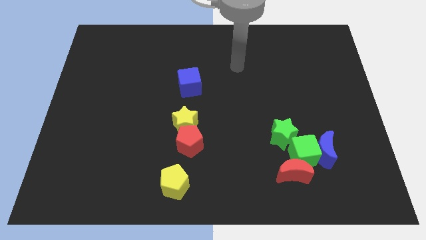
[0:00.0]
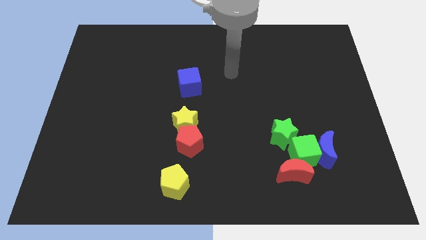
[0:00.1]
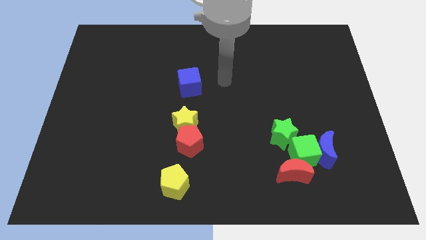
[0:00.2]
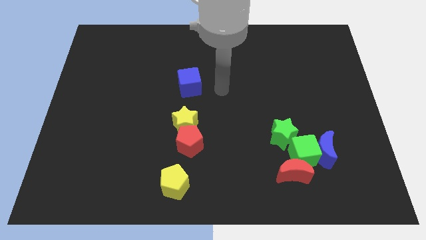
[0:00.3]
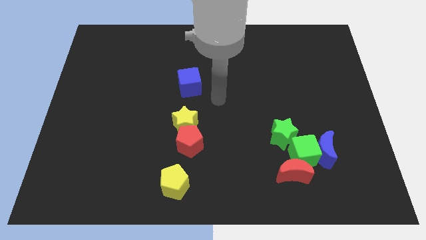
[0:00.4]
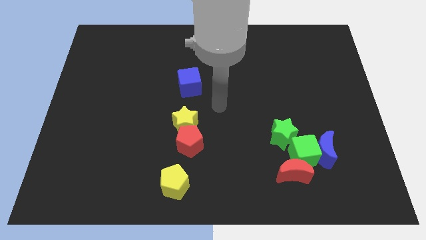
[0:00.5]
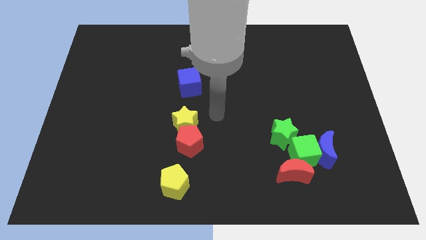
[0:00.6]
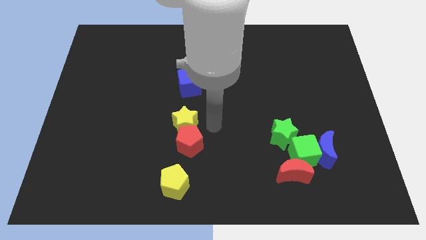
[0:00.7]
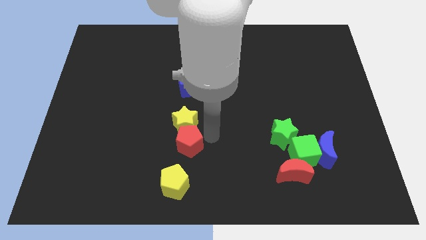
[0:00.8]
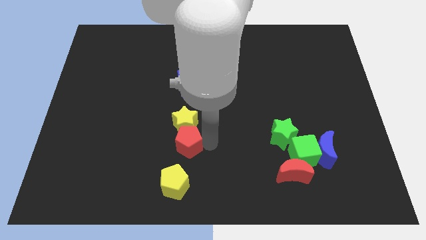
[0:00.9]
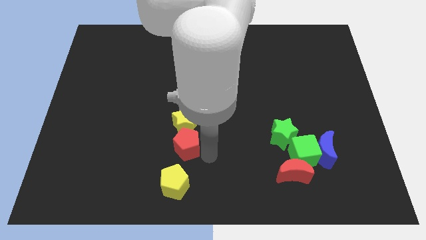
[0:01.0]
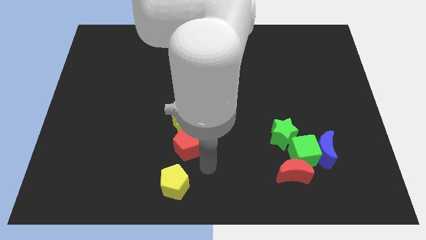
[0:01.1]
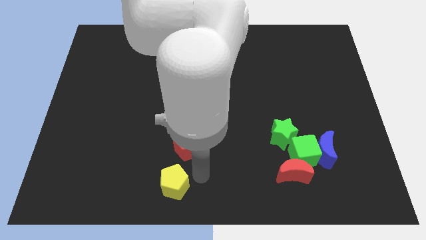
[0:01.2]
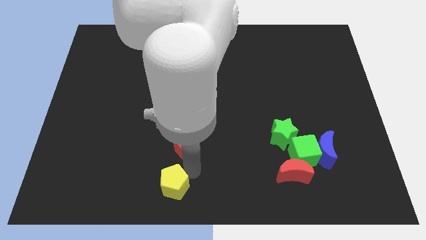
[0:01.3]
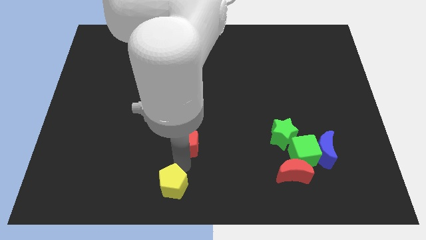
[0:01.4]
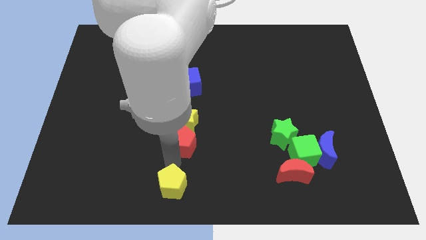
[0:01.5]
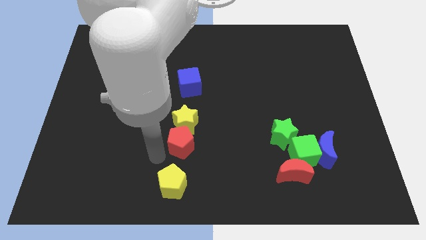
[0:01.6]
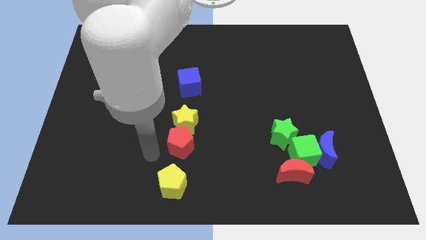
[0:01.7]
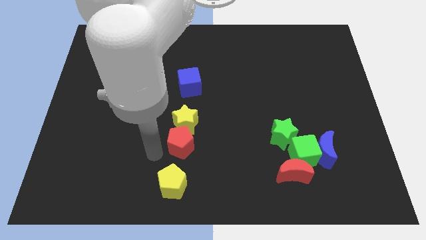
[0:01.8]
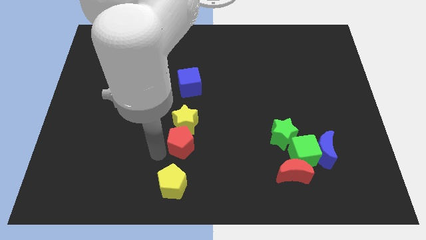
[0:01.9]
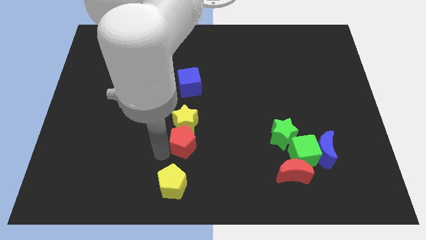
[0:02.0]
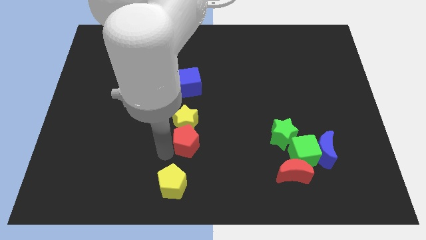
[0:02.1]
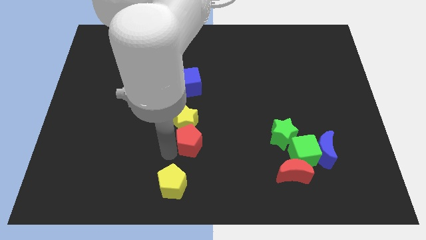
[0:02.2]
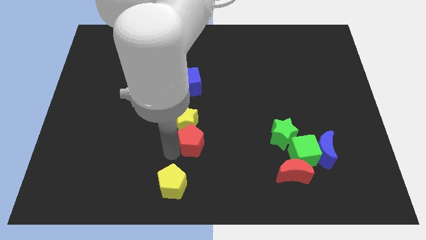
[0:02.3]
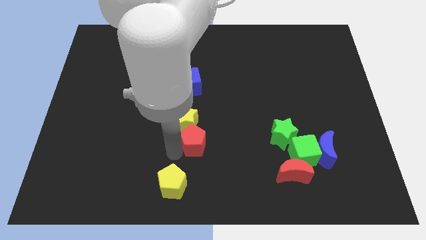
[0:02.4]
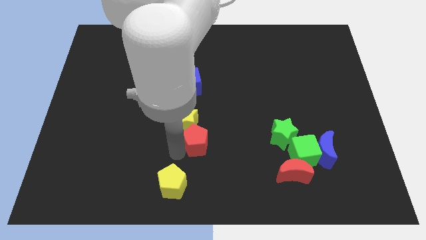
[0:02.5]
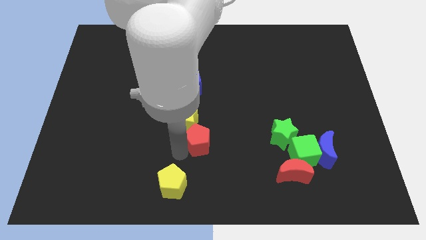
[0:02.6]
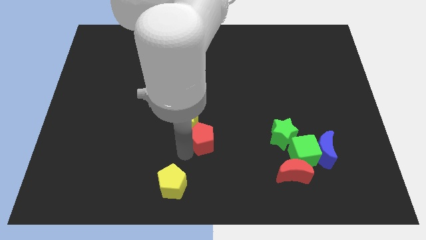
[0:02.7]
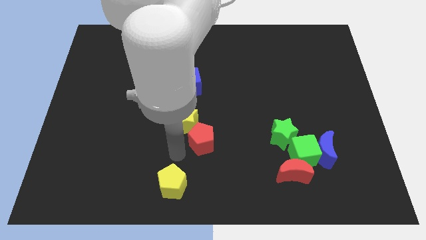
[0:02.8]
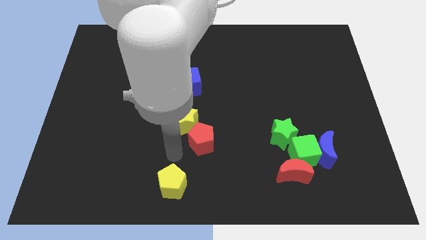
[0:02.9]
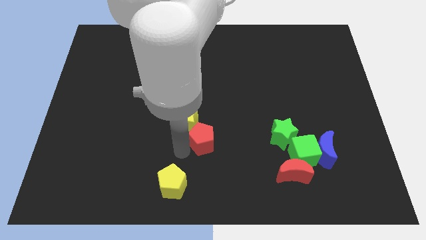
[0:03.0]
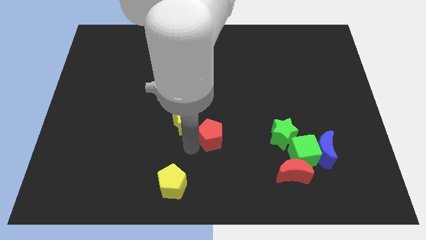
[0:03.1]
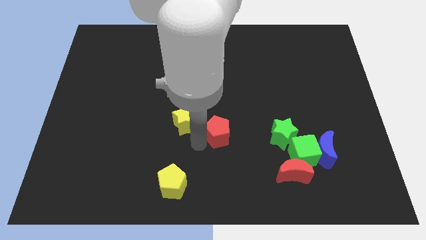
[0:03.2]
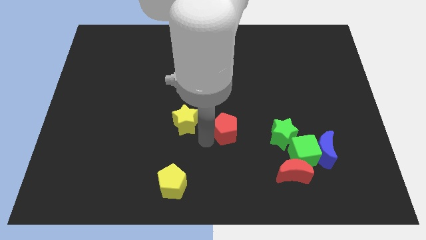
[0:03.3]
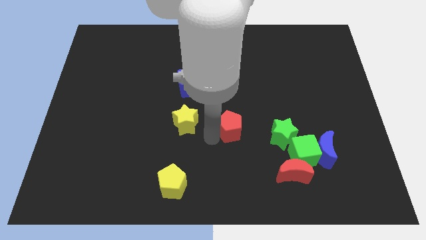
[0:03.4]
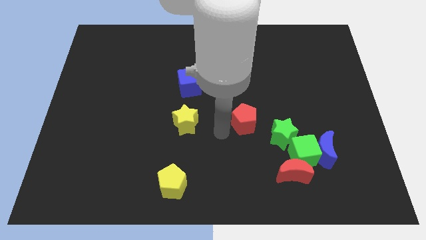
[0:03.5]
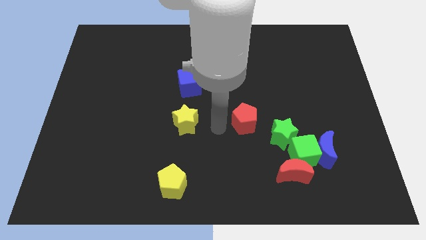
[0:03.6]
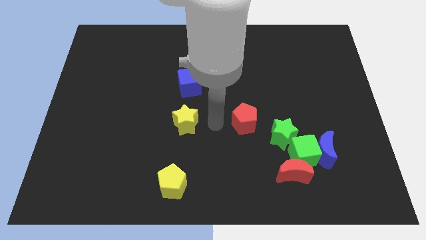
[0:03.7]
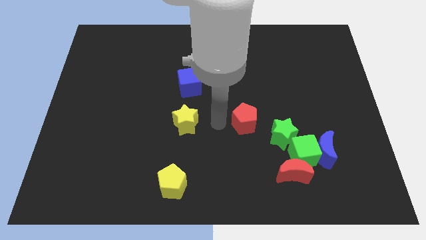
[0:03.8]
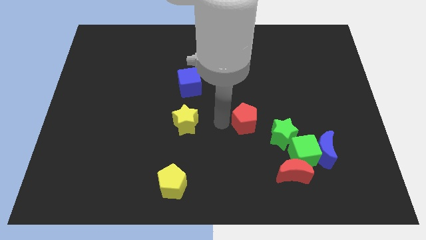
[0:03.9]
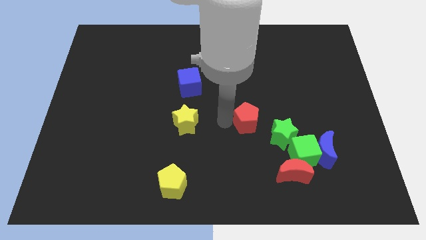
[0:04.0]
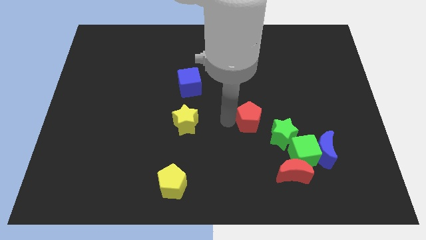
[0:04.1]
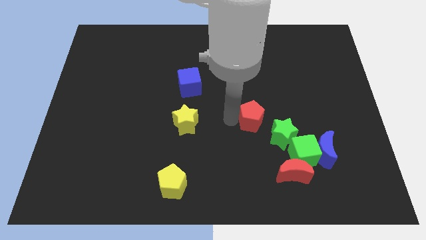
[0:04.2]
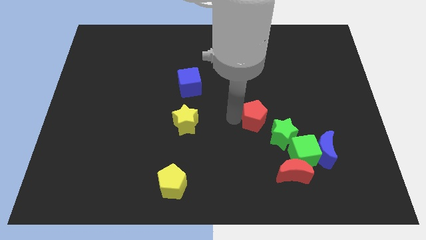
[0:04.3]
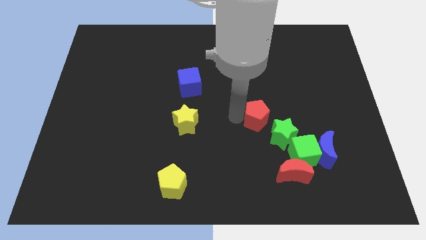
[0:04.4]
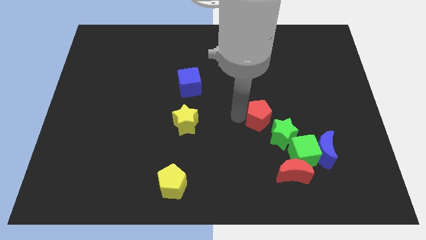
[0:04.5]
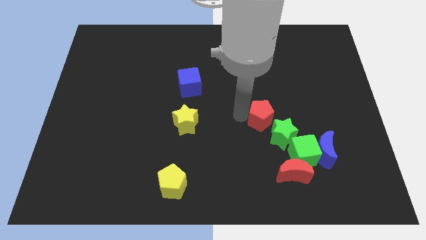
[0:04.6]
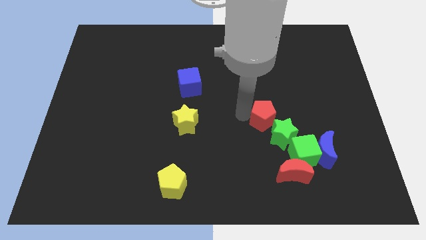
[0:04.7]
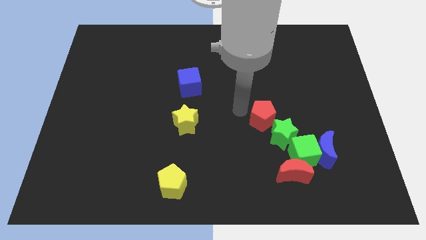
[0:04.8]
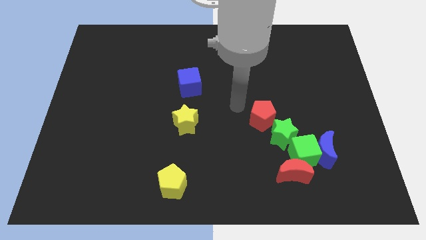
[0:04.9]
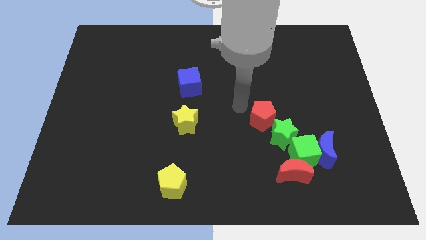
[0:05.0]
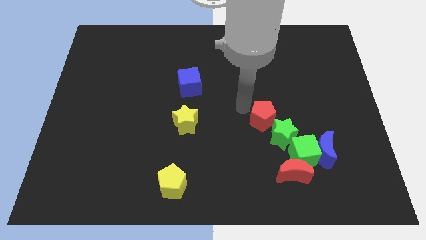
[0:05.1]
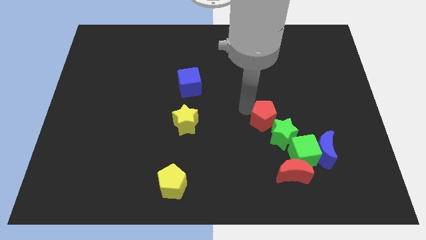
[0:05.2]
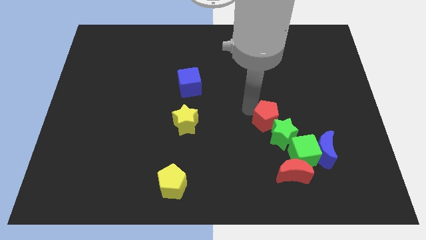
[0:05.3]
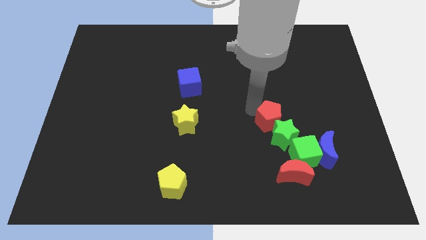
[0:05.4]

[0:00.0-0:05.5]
slide the red pentagon above the red moon

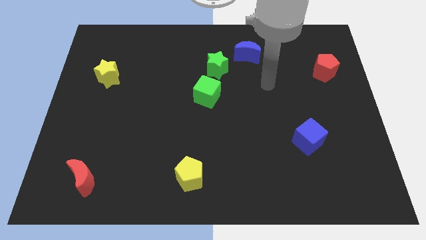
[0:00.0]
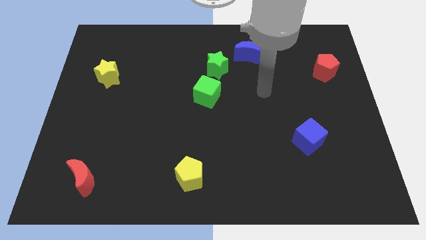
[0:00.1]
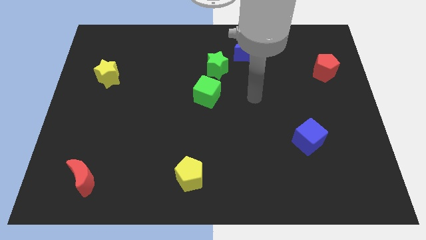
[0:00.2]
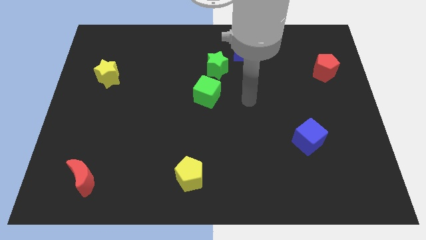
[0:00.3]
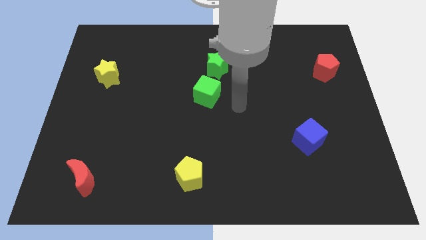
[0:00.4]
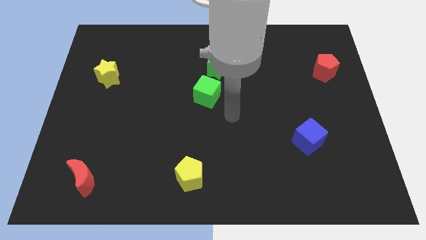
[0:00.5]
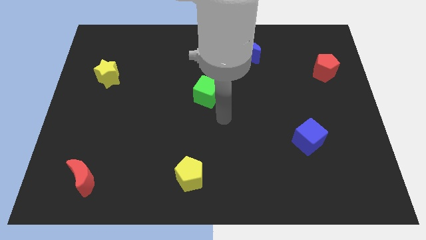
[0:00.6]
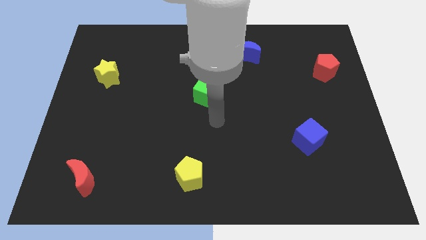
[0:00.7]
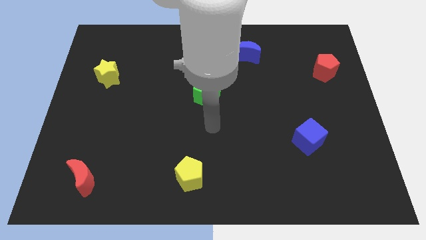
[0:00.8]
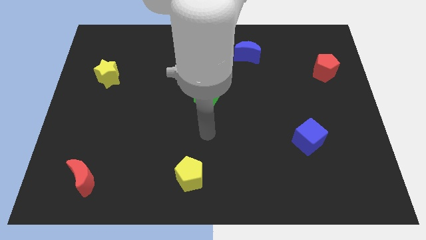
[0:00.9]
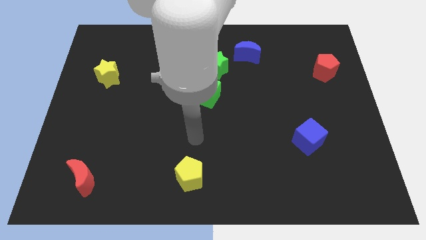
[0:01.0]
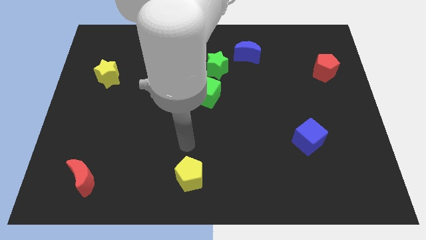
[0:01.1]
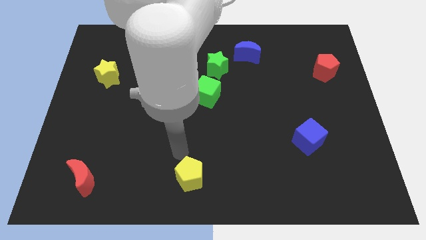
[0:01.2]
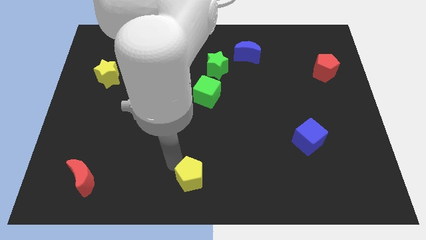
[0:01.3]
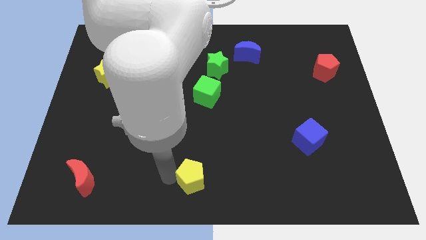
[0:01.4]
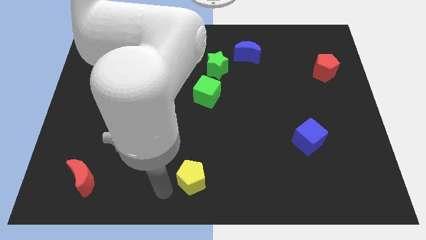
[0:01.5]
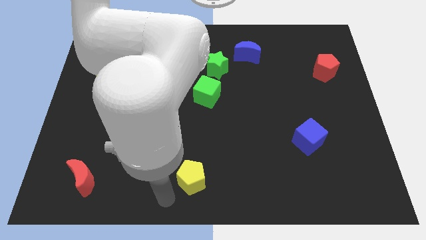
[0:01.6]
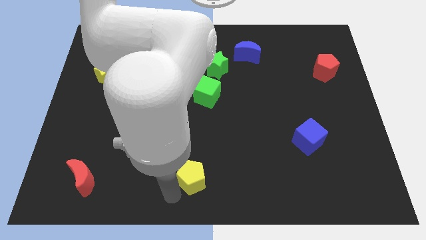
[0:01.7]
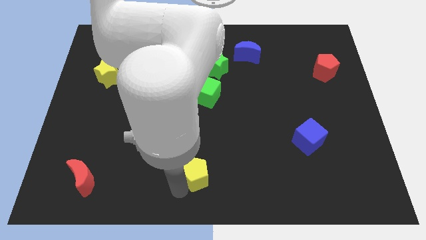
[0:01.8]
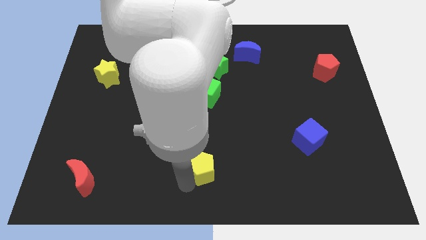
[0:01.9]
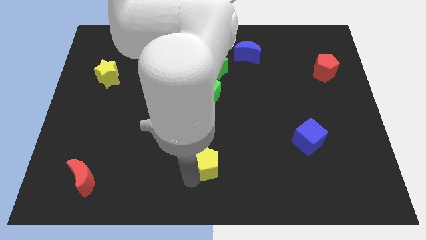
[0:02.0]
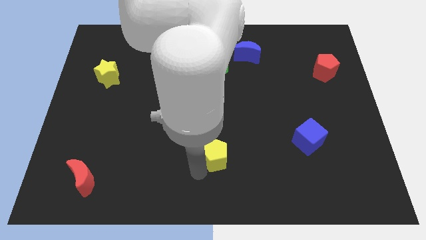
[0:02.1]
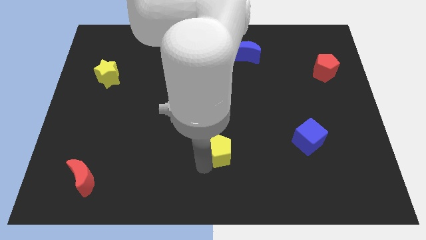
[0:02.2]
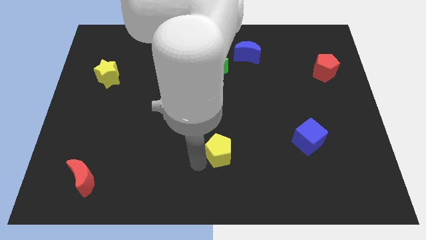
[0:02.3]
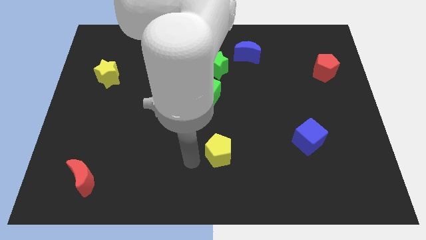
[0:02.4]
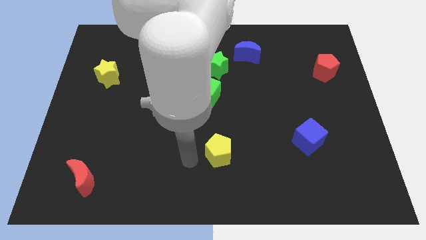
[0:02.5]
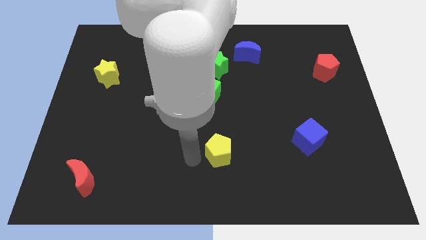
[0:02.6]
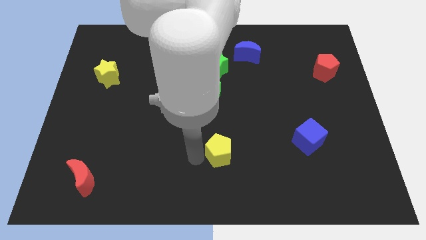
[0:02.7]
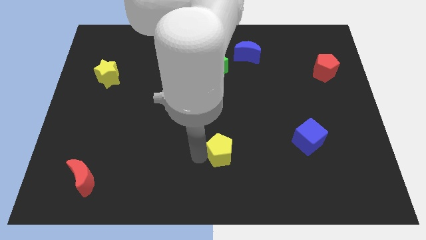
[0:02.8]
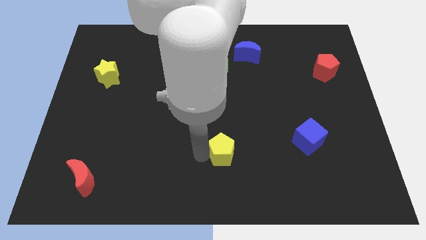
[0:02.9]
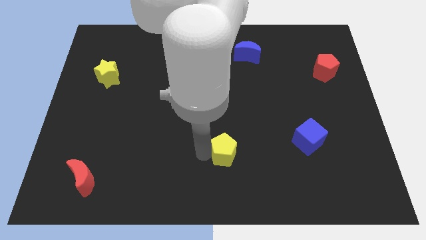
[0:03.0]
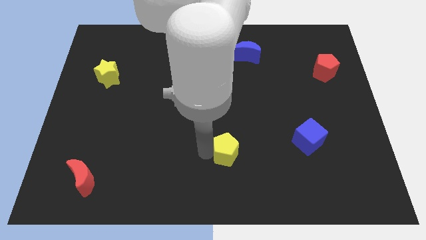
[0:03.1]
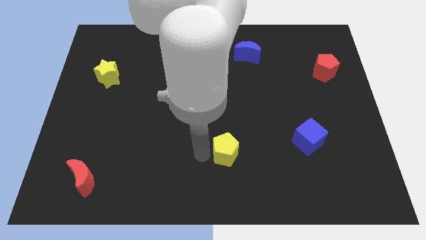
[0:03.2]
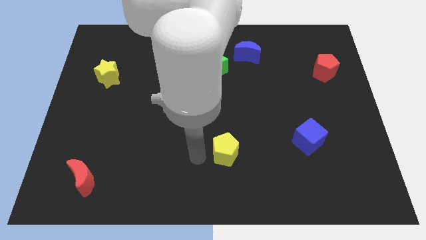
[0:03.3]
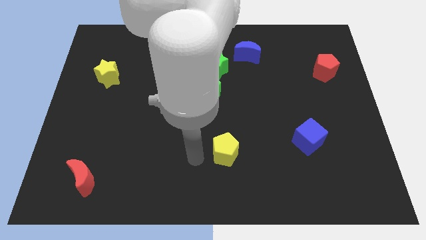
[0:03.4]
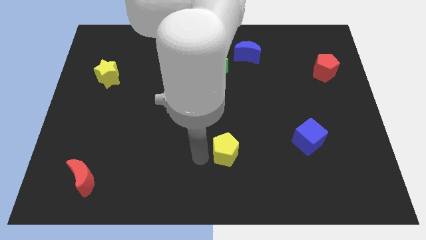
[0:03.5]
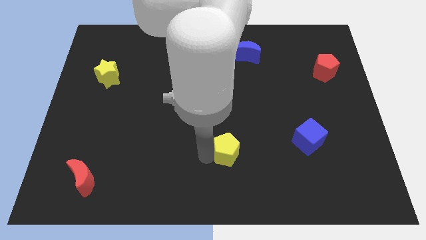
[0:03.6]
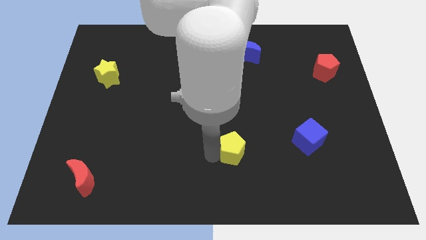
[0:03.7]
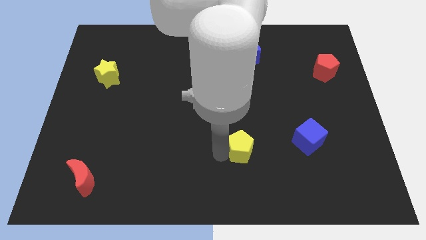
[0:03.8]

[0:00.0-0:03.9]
put the yellow pentagon just left of the blue cube
